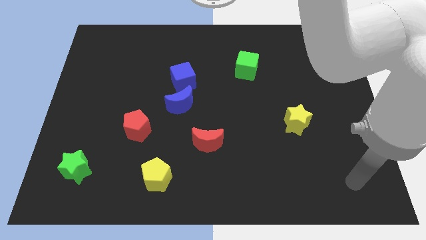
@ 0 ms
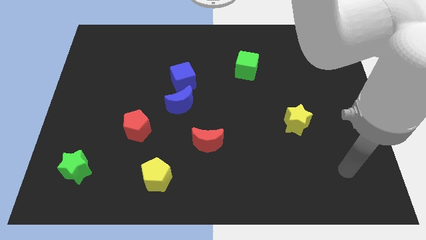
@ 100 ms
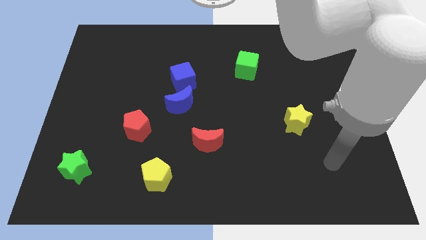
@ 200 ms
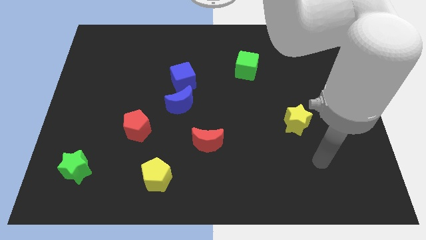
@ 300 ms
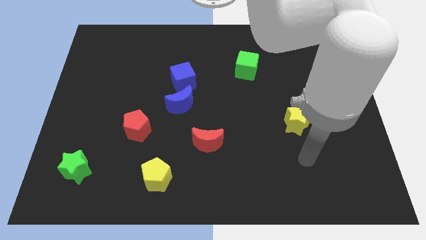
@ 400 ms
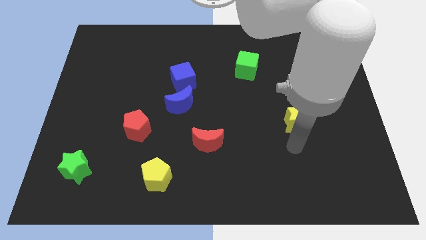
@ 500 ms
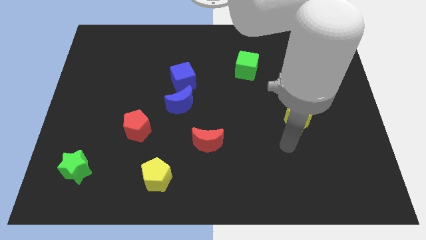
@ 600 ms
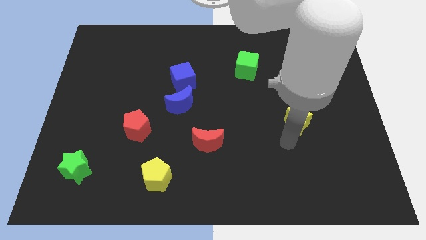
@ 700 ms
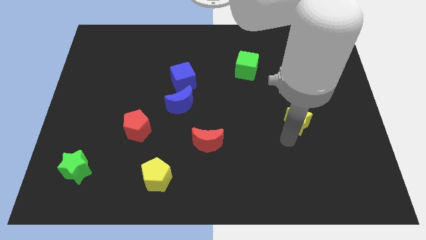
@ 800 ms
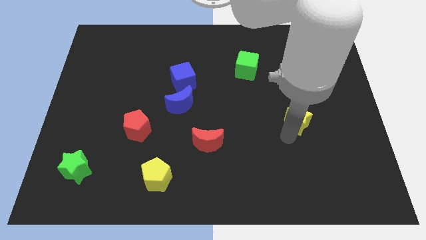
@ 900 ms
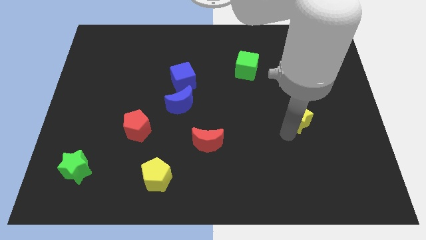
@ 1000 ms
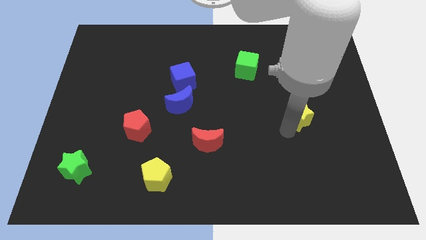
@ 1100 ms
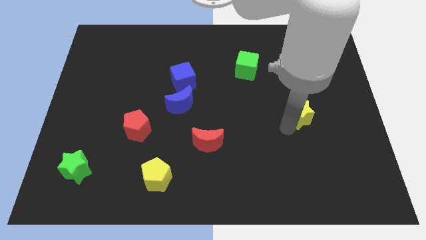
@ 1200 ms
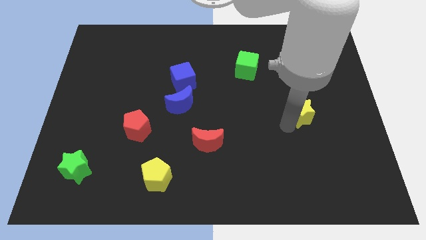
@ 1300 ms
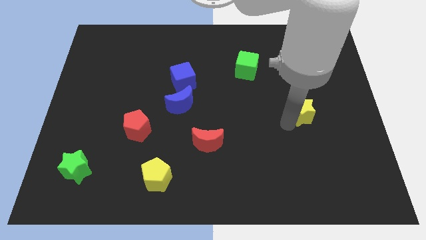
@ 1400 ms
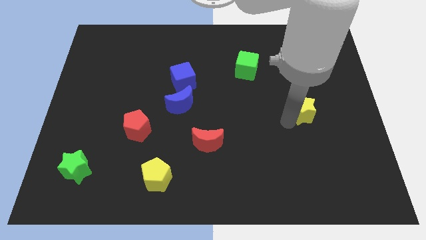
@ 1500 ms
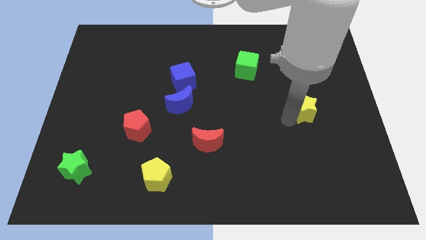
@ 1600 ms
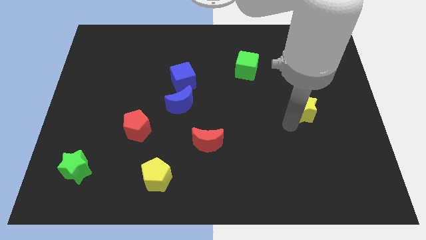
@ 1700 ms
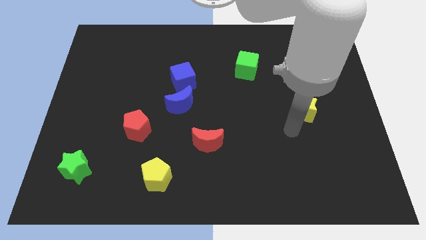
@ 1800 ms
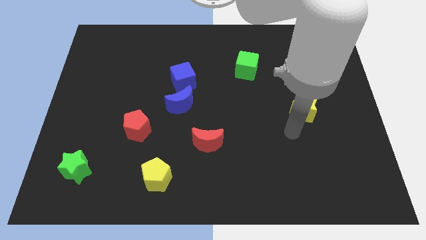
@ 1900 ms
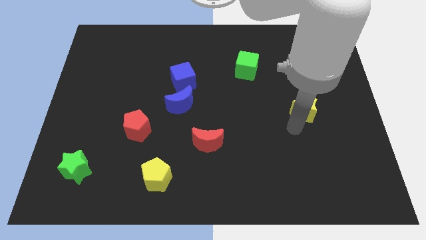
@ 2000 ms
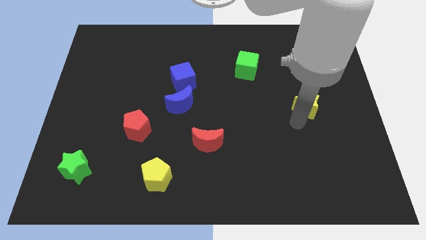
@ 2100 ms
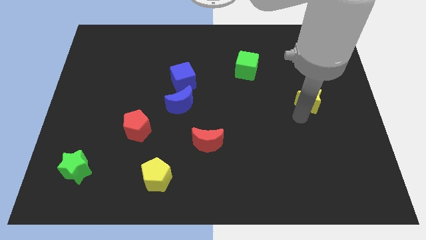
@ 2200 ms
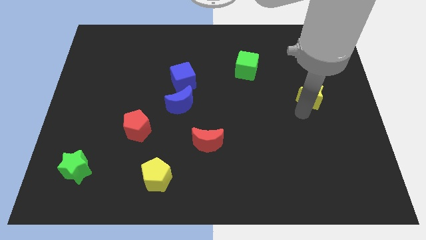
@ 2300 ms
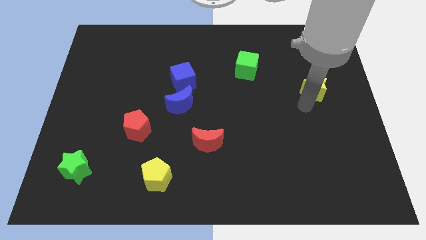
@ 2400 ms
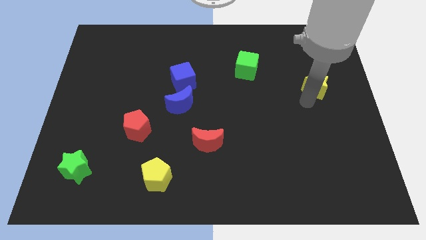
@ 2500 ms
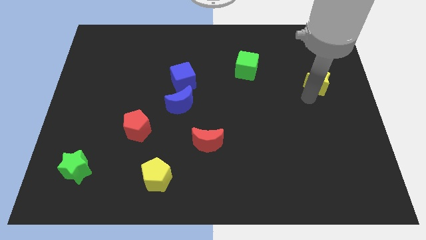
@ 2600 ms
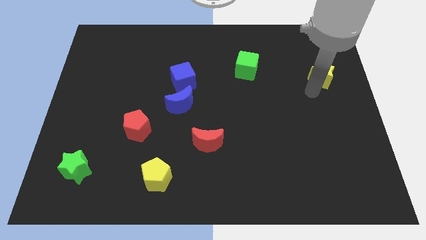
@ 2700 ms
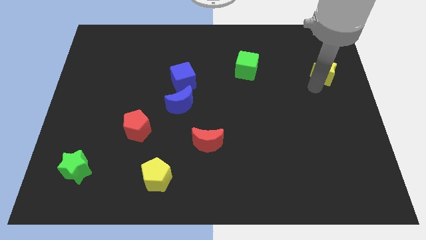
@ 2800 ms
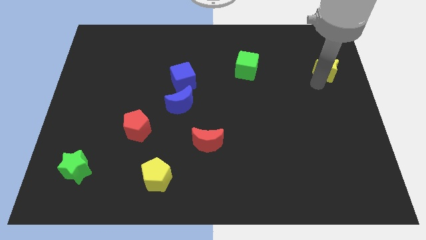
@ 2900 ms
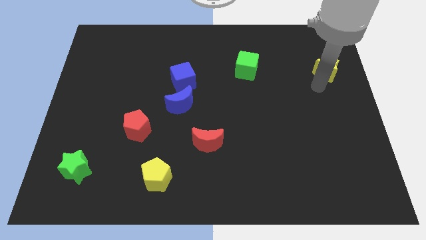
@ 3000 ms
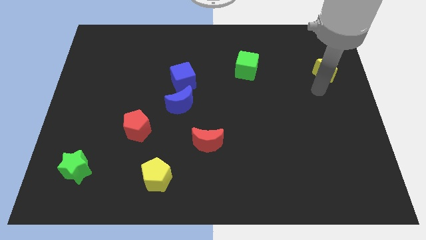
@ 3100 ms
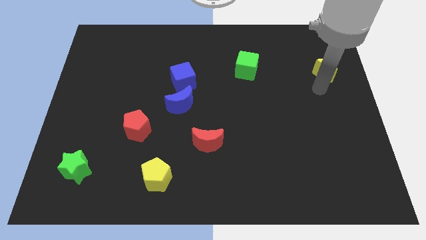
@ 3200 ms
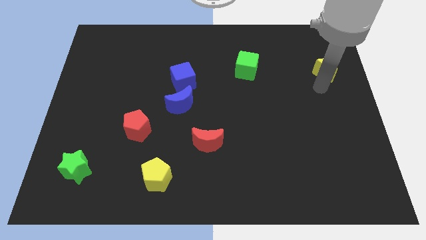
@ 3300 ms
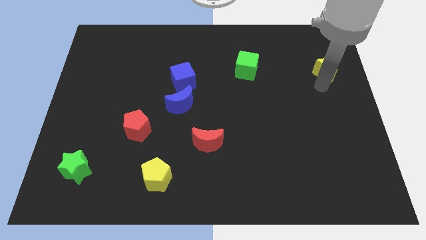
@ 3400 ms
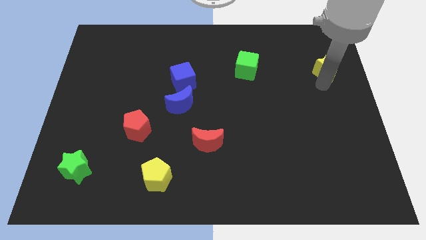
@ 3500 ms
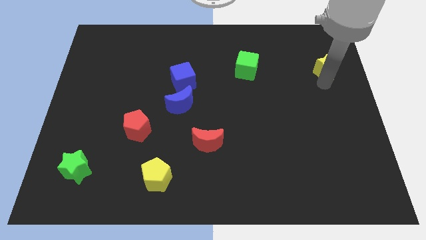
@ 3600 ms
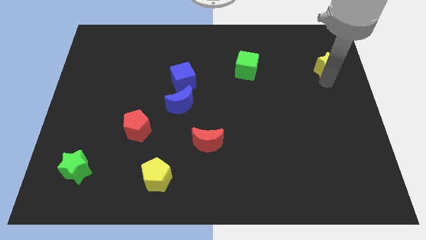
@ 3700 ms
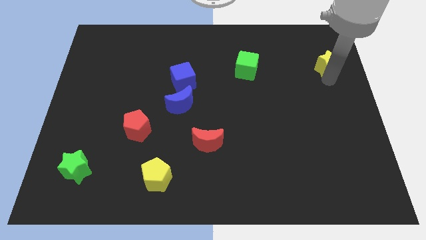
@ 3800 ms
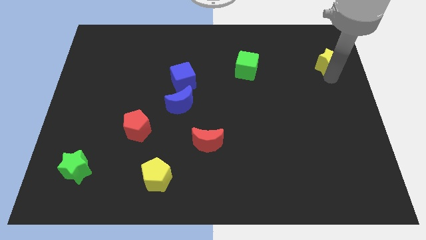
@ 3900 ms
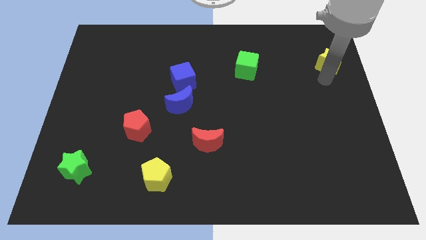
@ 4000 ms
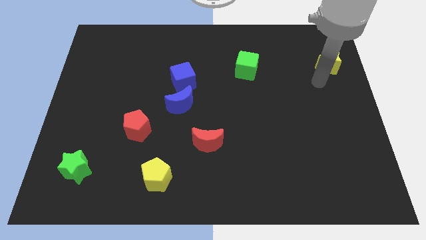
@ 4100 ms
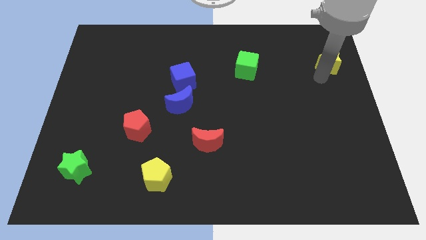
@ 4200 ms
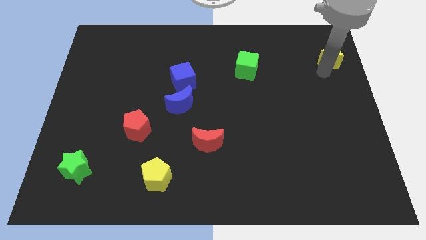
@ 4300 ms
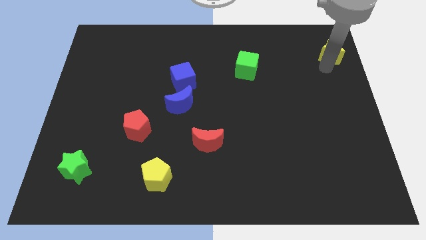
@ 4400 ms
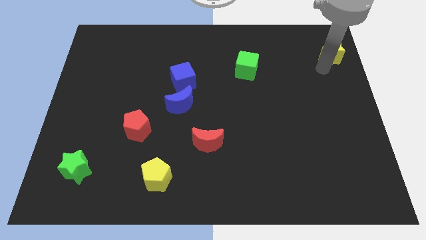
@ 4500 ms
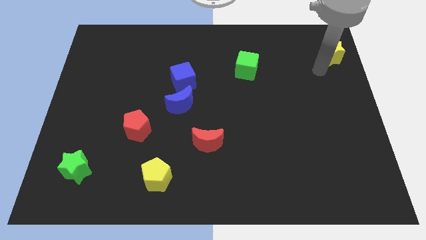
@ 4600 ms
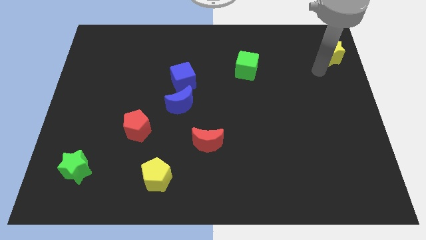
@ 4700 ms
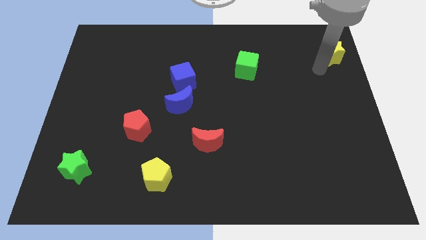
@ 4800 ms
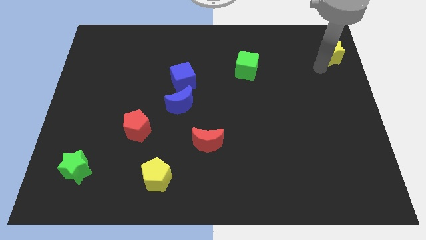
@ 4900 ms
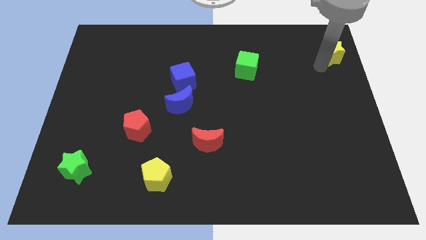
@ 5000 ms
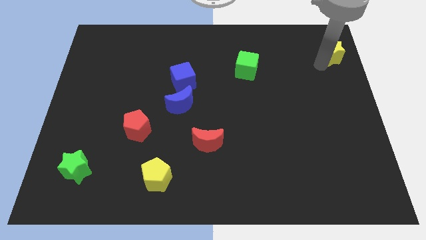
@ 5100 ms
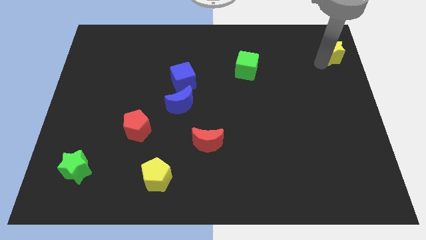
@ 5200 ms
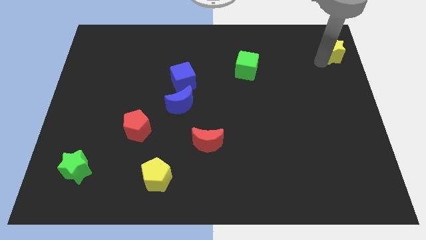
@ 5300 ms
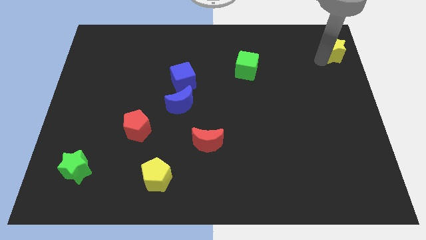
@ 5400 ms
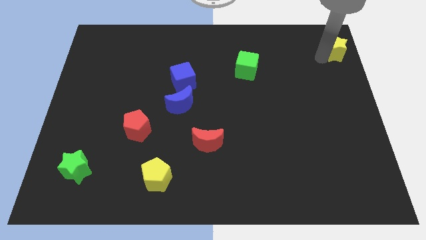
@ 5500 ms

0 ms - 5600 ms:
slide the yellow star to the top right

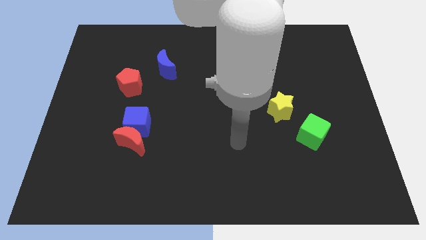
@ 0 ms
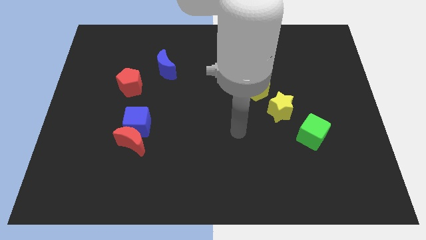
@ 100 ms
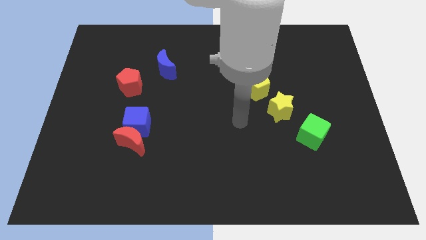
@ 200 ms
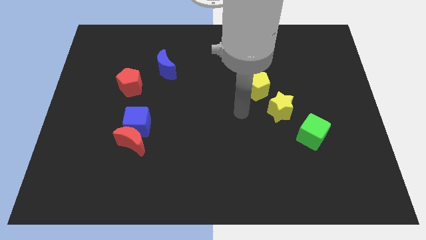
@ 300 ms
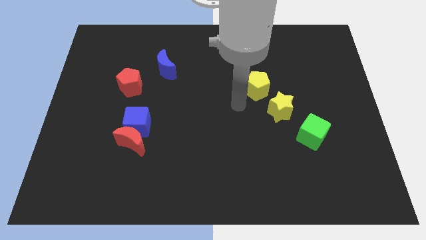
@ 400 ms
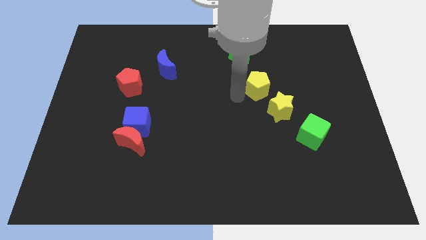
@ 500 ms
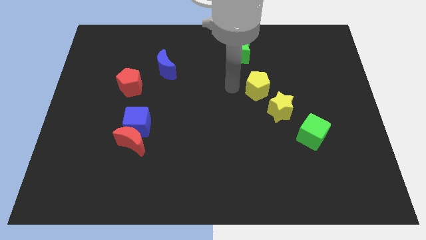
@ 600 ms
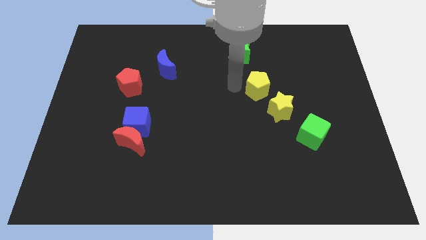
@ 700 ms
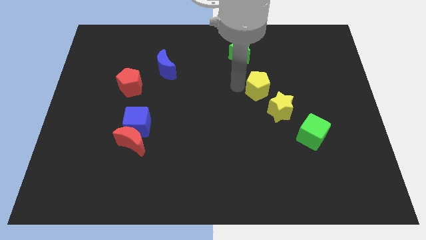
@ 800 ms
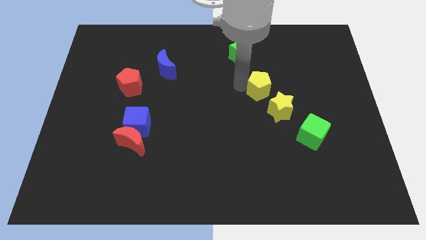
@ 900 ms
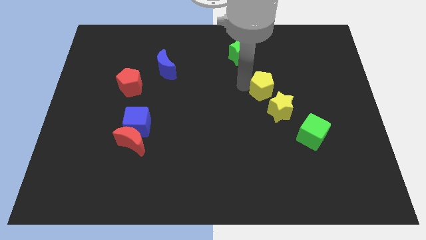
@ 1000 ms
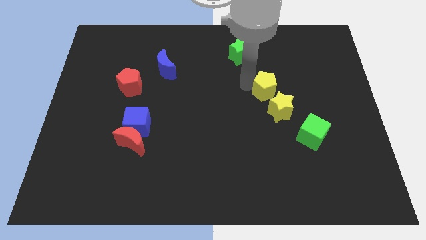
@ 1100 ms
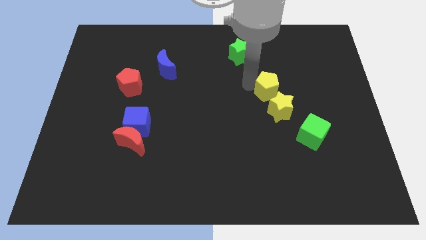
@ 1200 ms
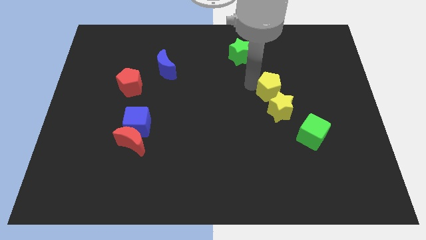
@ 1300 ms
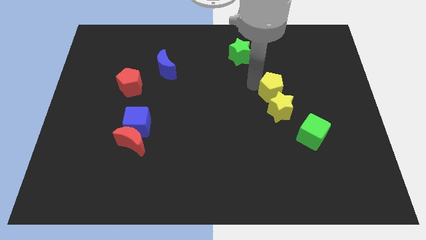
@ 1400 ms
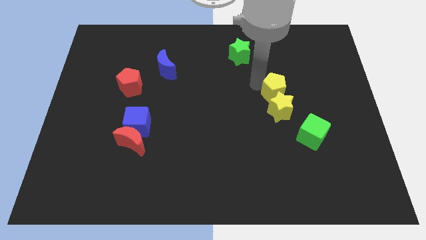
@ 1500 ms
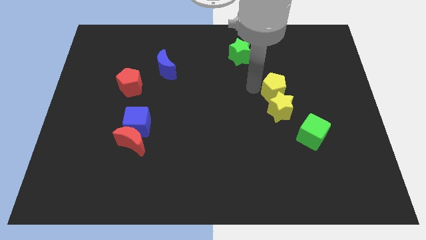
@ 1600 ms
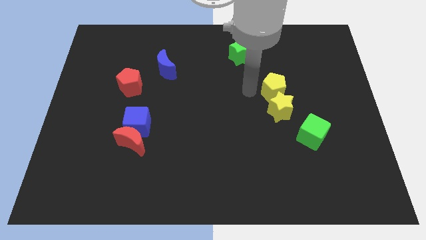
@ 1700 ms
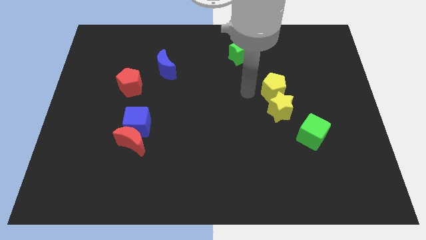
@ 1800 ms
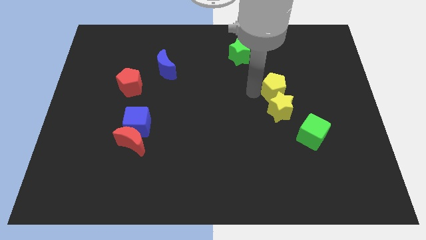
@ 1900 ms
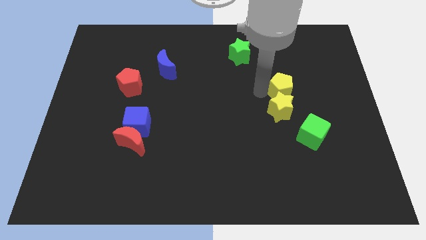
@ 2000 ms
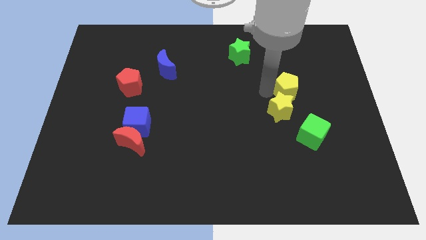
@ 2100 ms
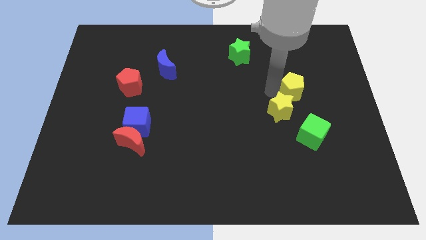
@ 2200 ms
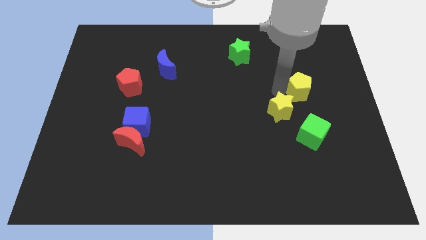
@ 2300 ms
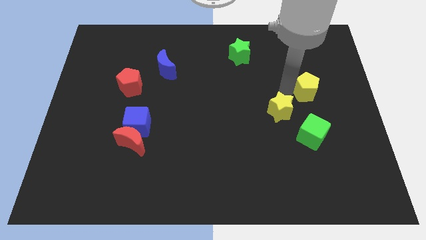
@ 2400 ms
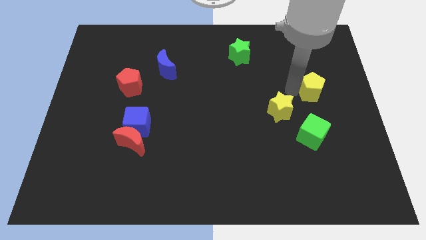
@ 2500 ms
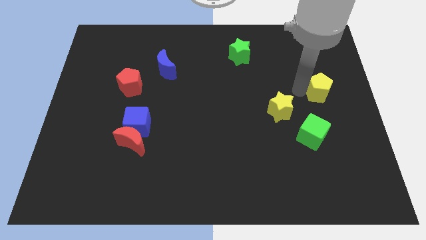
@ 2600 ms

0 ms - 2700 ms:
slide the yellow pentagon to the right side of the board
